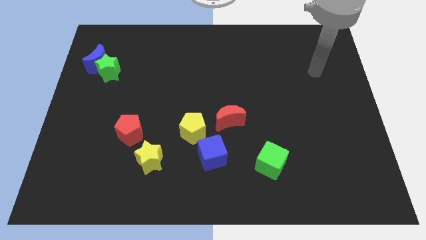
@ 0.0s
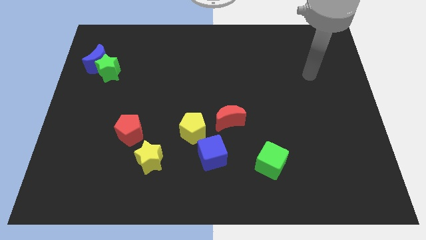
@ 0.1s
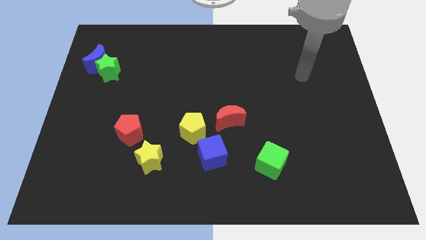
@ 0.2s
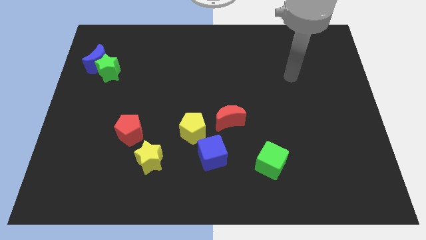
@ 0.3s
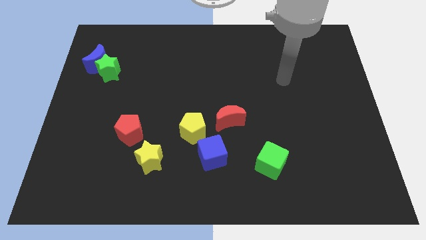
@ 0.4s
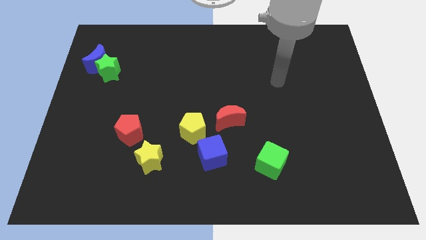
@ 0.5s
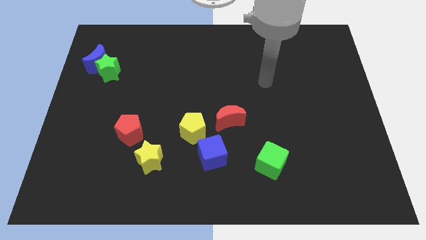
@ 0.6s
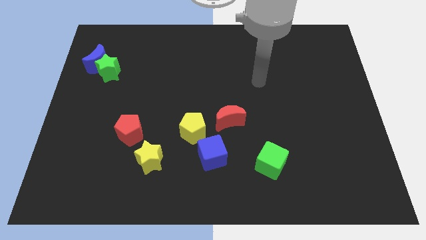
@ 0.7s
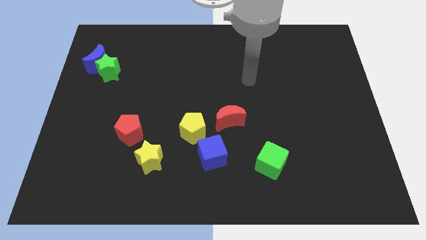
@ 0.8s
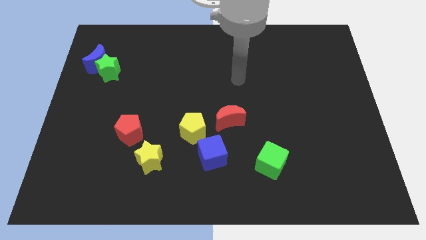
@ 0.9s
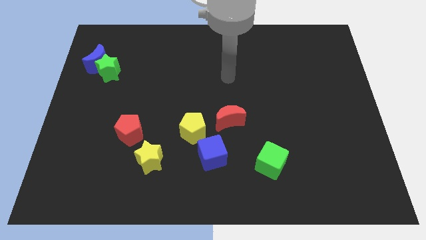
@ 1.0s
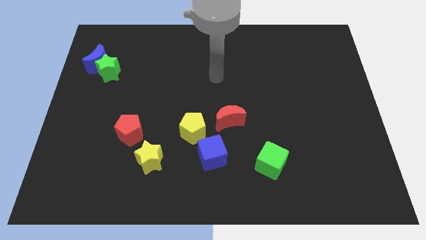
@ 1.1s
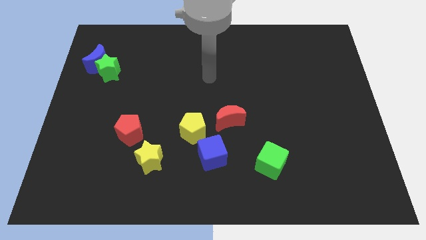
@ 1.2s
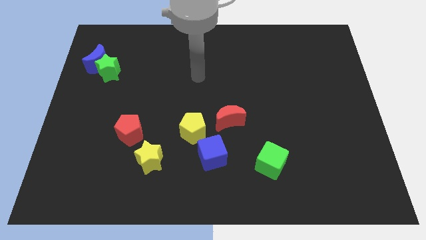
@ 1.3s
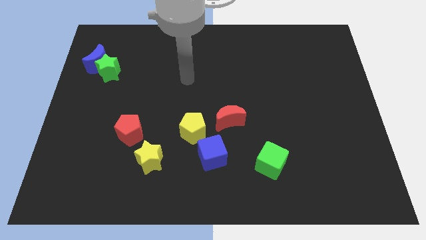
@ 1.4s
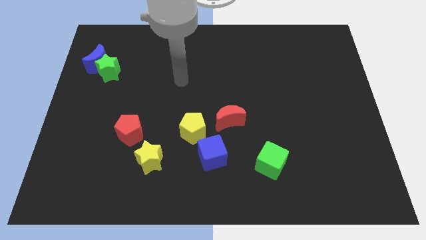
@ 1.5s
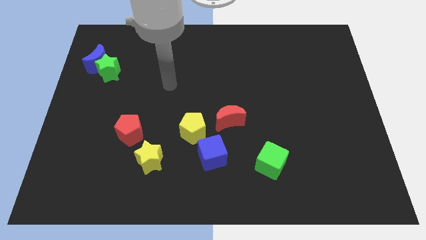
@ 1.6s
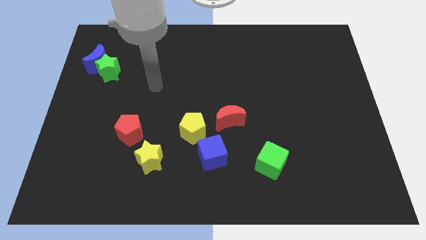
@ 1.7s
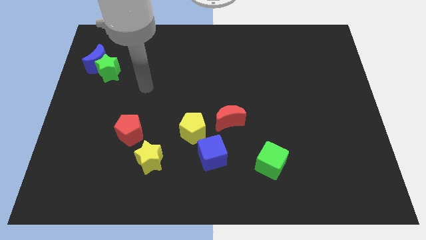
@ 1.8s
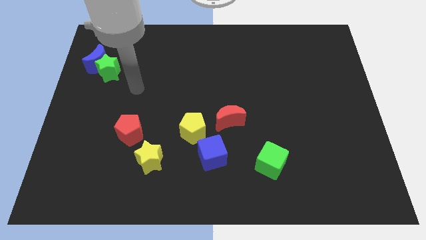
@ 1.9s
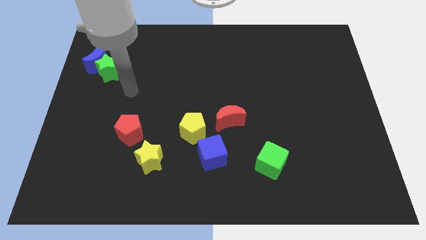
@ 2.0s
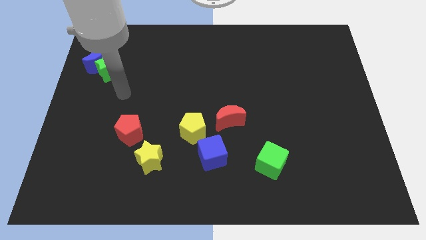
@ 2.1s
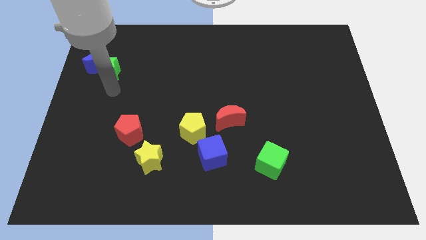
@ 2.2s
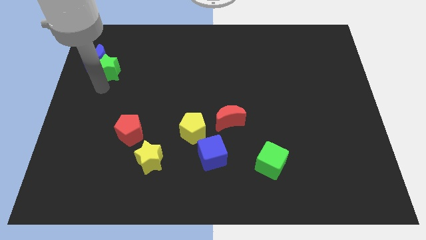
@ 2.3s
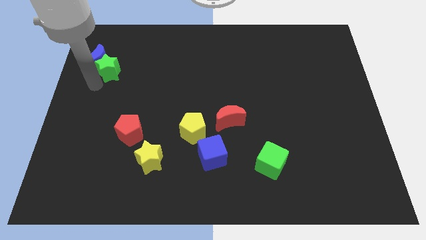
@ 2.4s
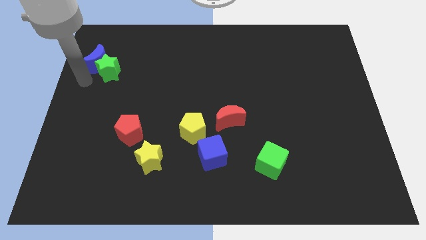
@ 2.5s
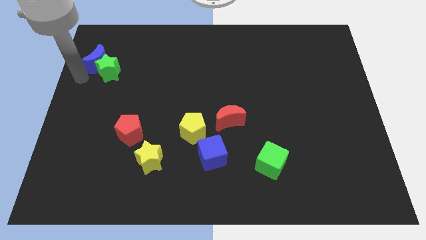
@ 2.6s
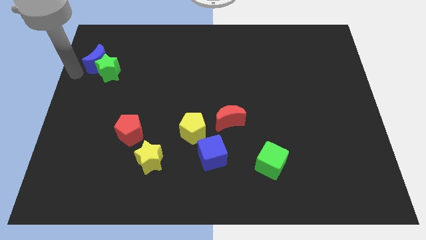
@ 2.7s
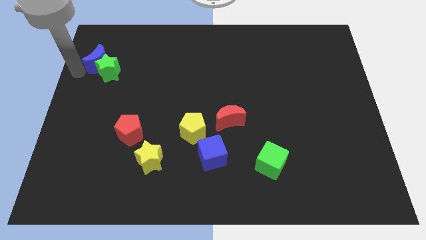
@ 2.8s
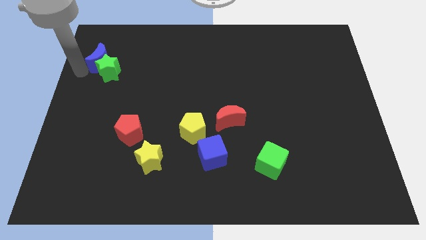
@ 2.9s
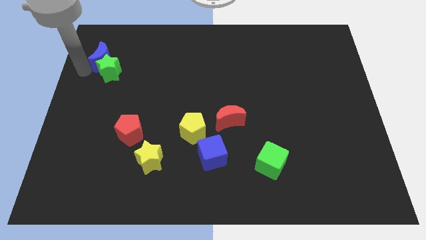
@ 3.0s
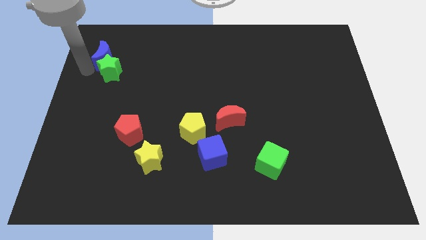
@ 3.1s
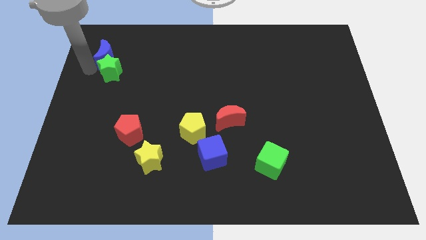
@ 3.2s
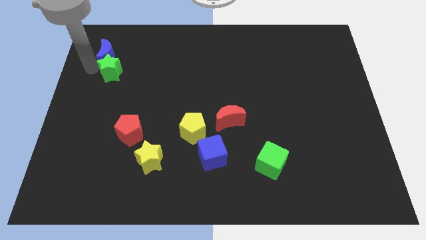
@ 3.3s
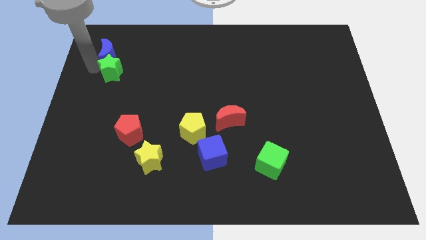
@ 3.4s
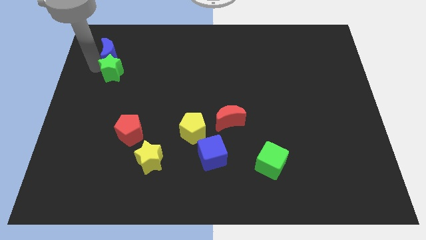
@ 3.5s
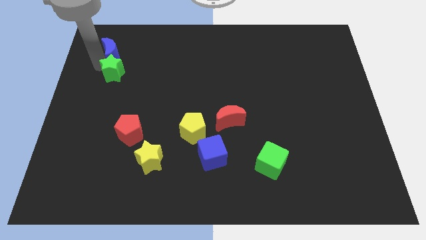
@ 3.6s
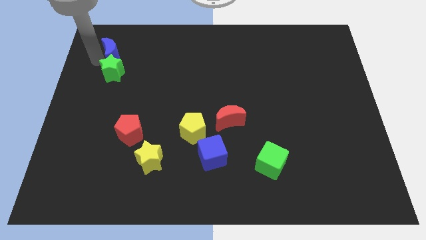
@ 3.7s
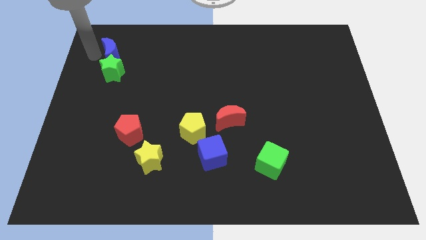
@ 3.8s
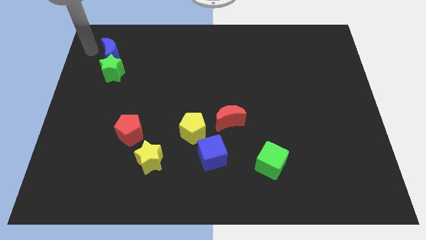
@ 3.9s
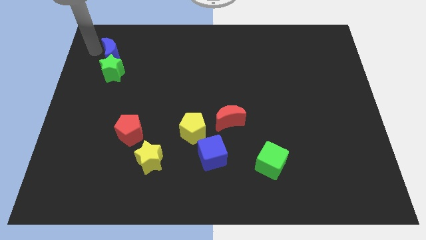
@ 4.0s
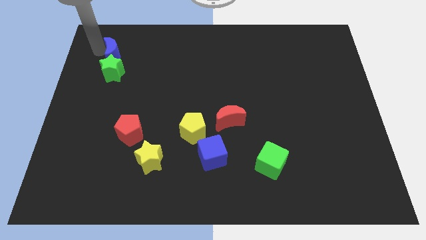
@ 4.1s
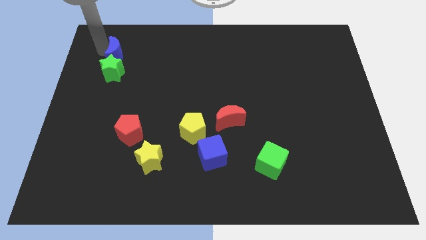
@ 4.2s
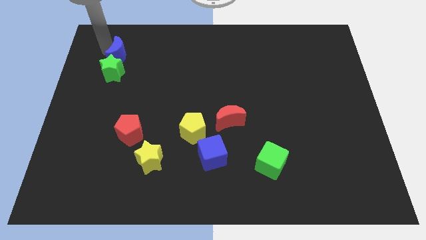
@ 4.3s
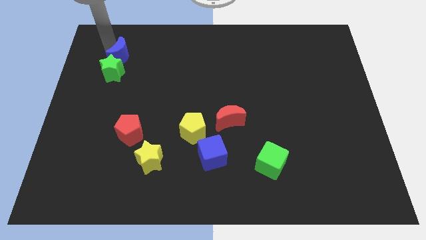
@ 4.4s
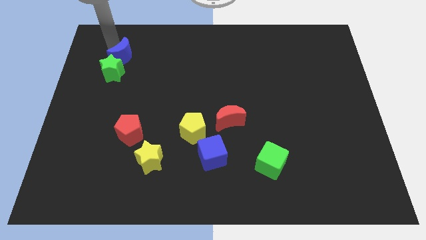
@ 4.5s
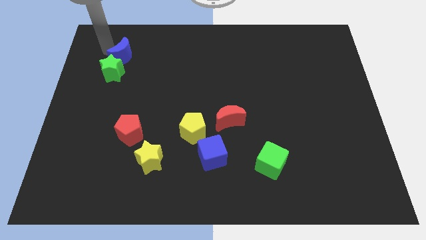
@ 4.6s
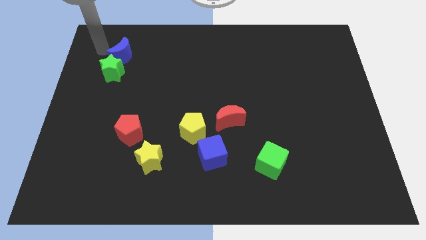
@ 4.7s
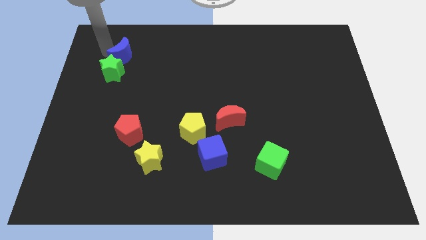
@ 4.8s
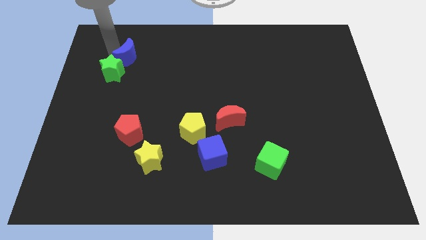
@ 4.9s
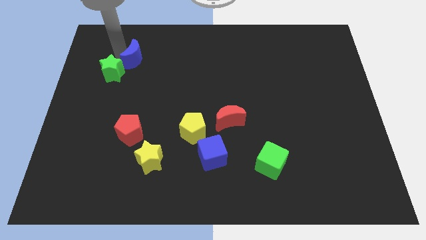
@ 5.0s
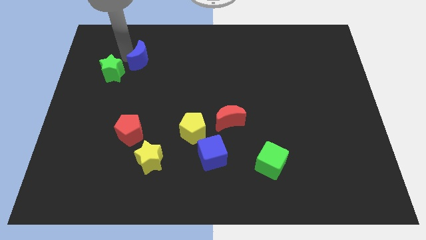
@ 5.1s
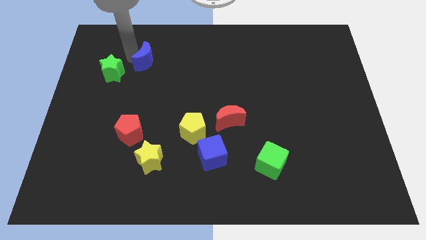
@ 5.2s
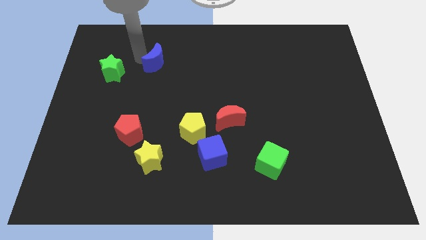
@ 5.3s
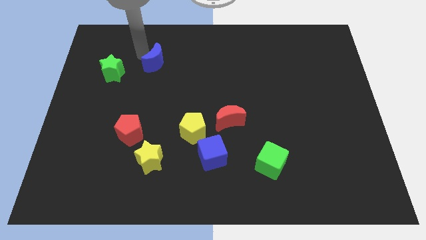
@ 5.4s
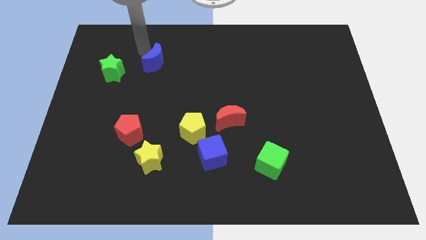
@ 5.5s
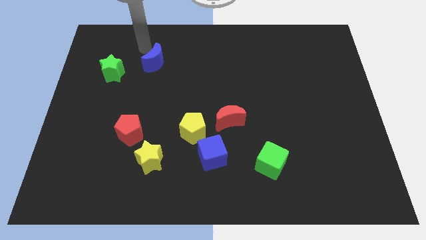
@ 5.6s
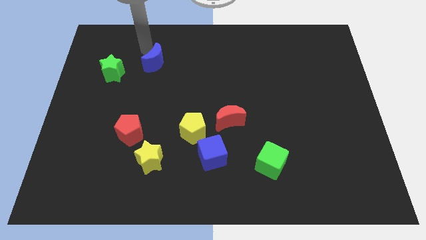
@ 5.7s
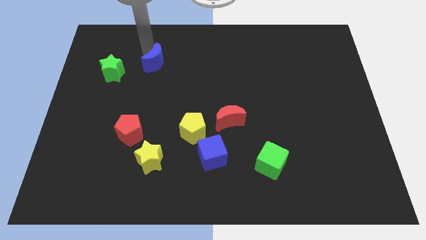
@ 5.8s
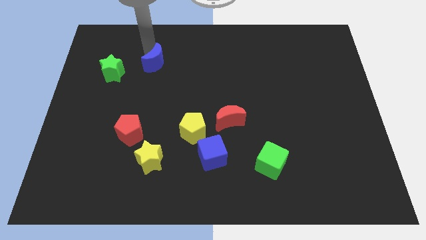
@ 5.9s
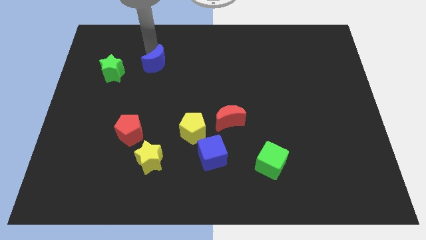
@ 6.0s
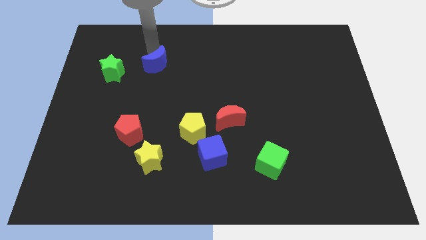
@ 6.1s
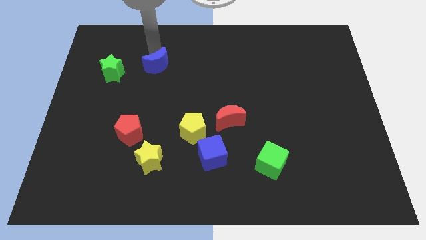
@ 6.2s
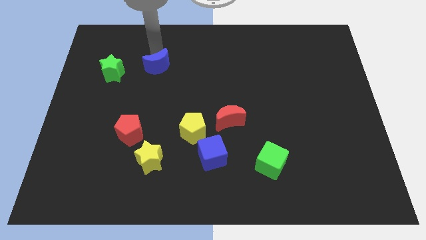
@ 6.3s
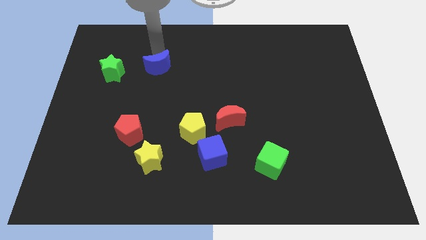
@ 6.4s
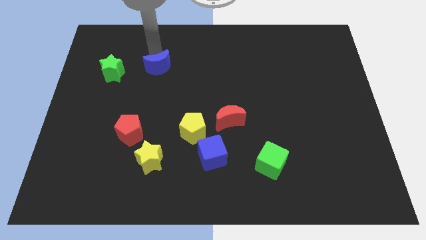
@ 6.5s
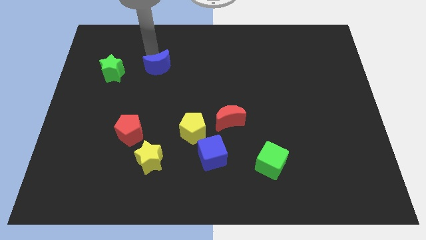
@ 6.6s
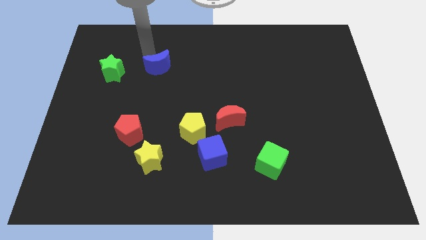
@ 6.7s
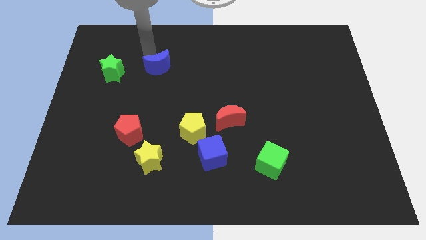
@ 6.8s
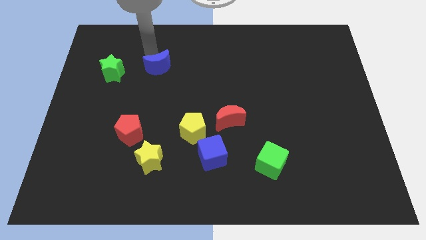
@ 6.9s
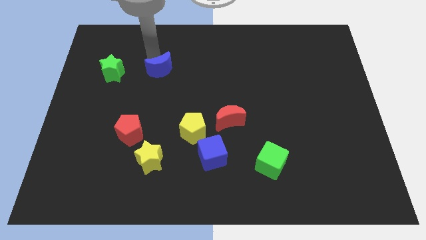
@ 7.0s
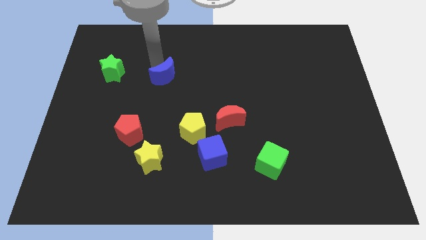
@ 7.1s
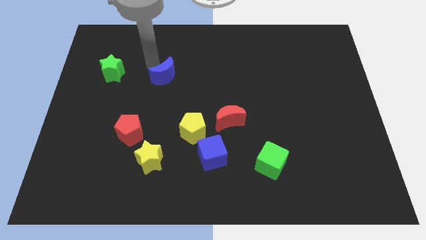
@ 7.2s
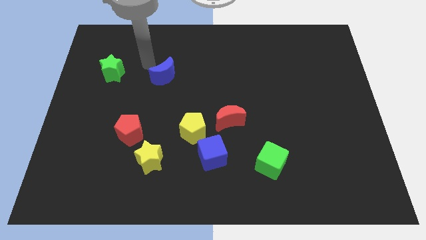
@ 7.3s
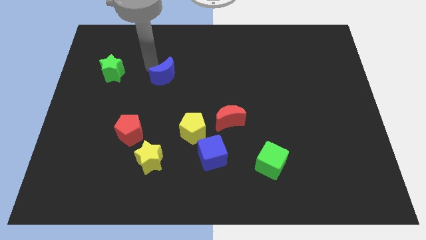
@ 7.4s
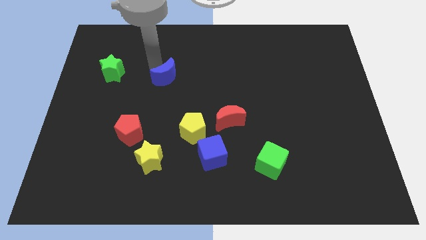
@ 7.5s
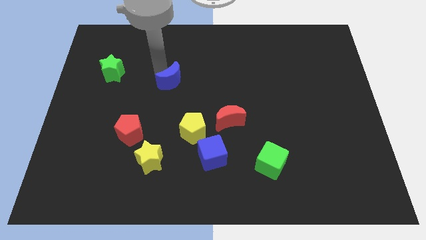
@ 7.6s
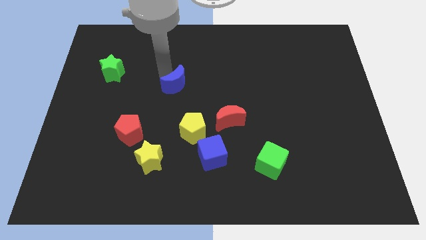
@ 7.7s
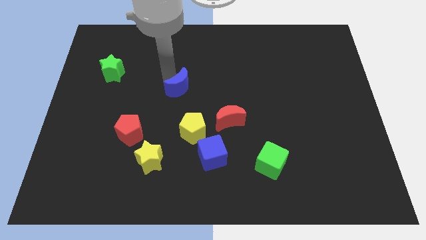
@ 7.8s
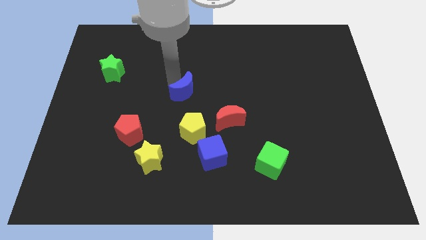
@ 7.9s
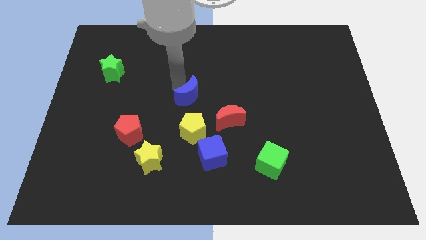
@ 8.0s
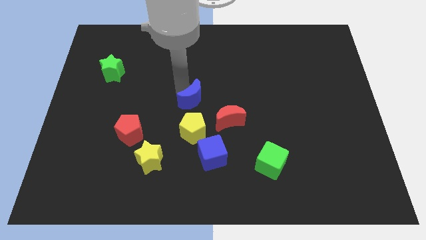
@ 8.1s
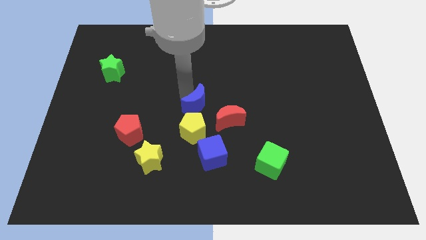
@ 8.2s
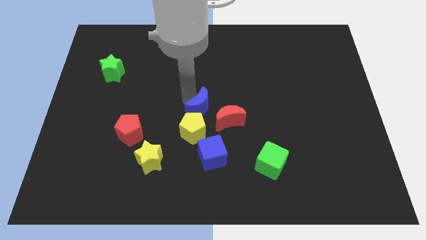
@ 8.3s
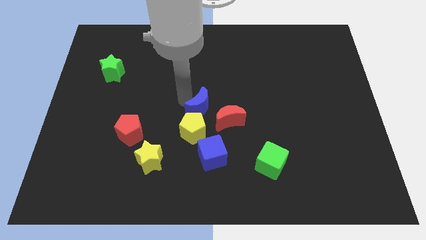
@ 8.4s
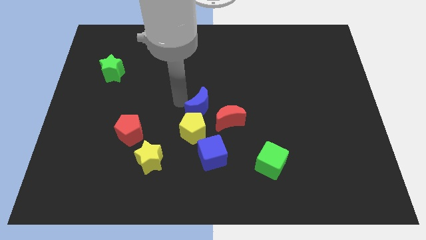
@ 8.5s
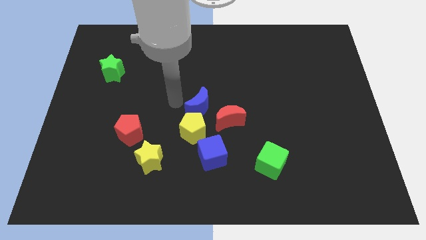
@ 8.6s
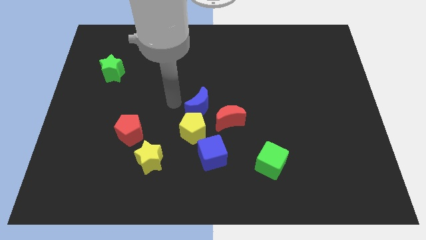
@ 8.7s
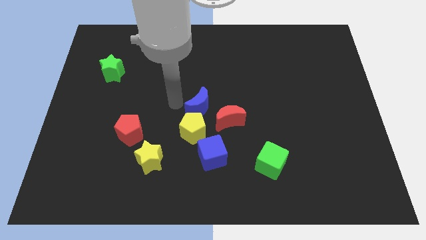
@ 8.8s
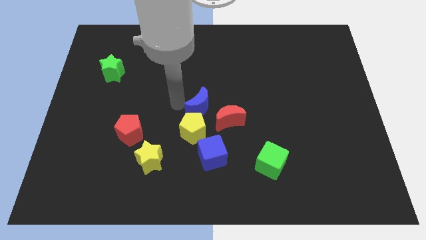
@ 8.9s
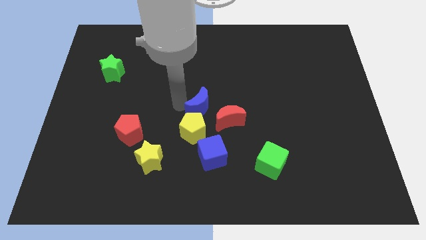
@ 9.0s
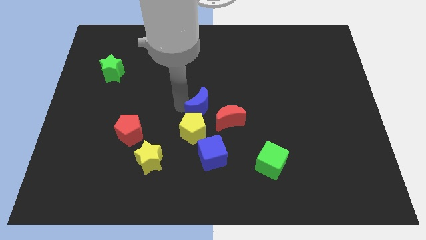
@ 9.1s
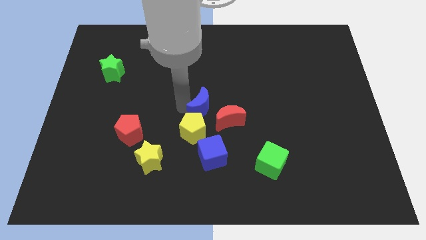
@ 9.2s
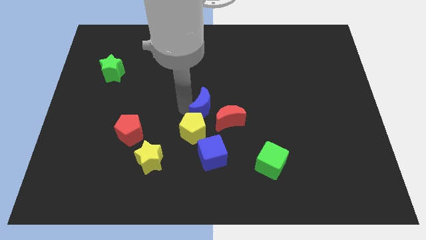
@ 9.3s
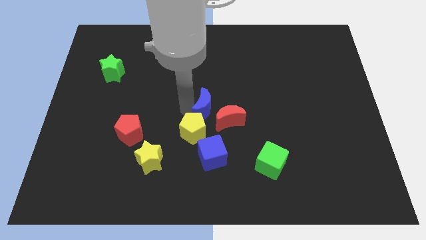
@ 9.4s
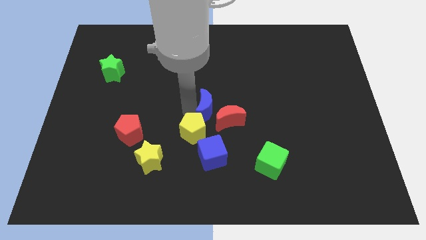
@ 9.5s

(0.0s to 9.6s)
push the blue moon close to the red moon
